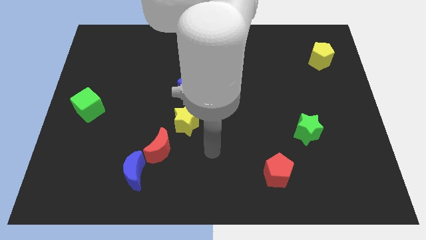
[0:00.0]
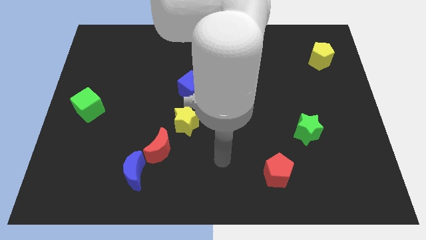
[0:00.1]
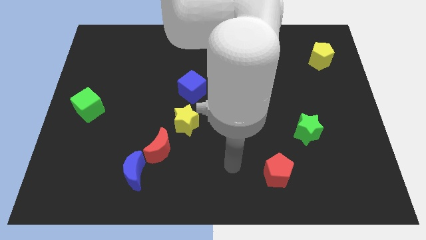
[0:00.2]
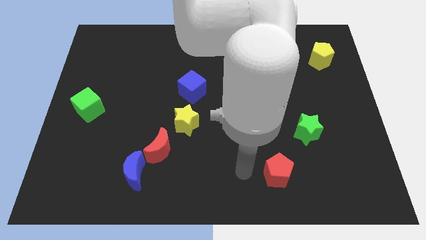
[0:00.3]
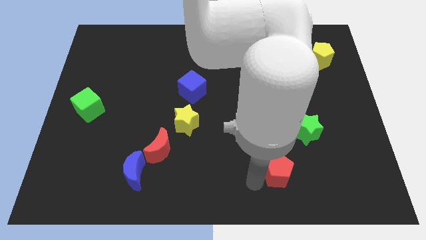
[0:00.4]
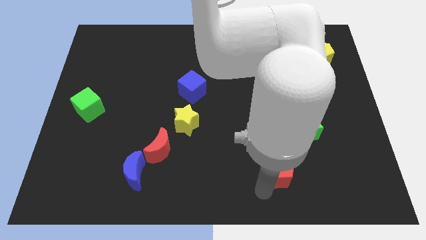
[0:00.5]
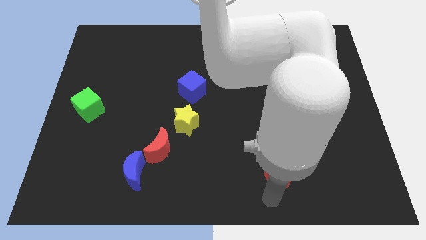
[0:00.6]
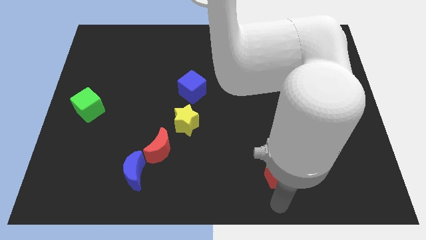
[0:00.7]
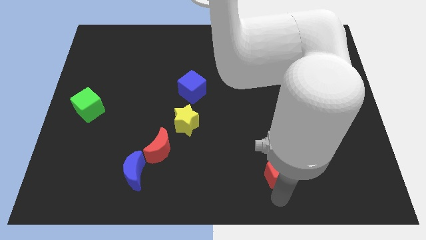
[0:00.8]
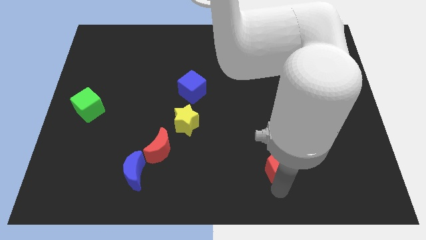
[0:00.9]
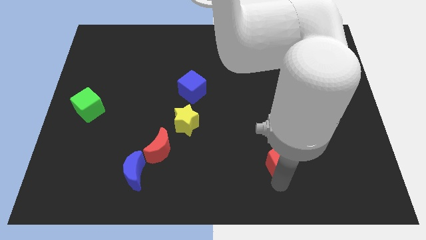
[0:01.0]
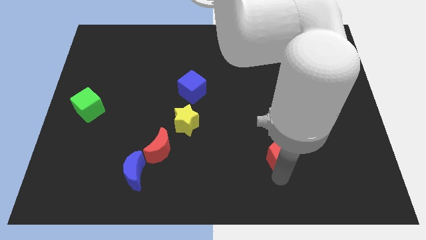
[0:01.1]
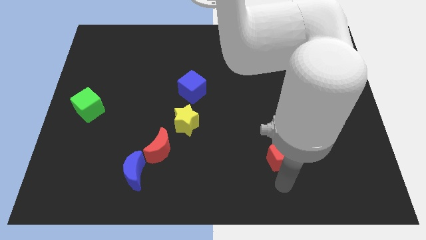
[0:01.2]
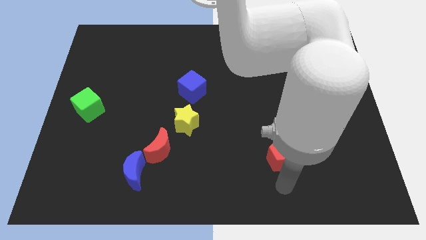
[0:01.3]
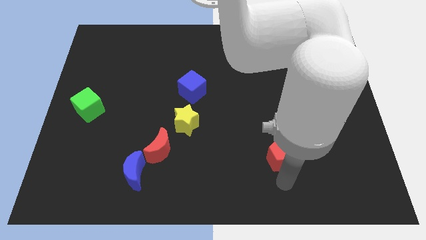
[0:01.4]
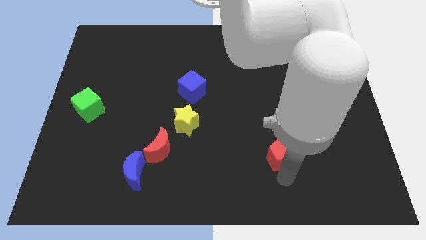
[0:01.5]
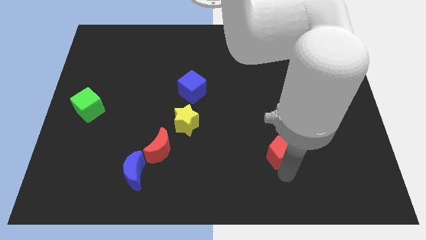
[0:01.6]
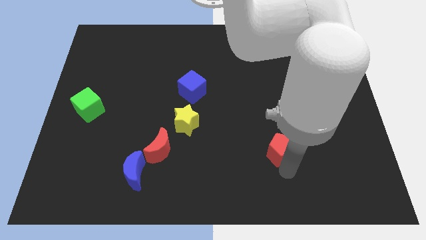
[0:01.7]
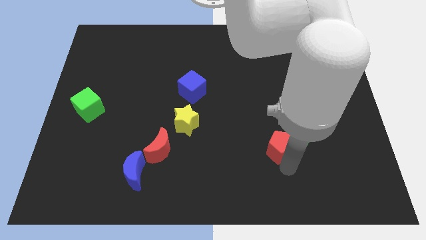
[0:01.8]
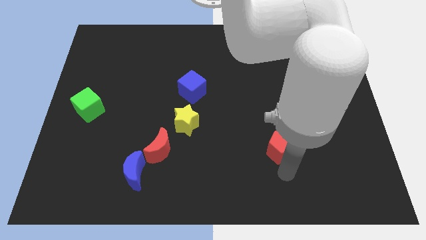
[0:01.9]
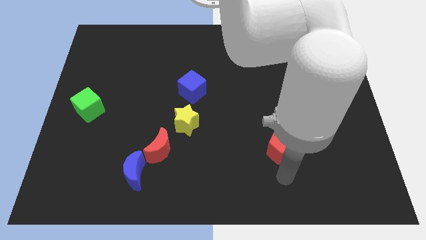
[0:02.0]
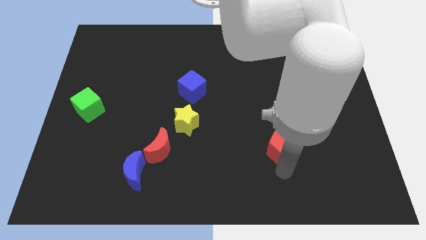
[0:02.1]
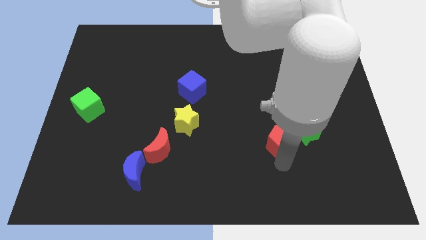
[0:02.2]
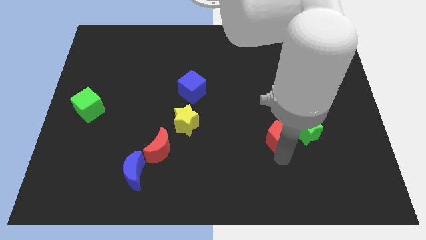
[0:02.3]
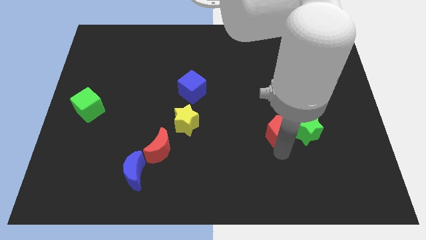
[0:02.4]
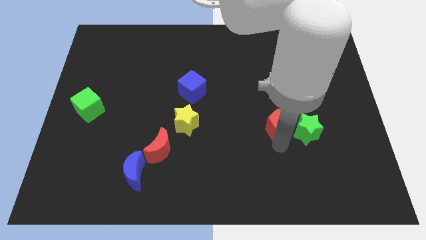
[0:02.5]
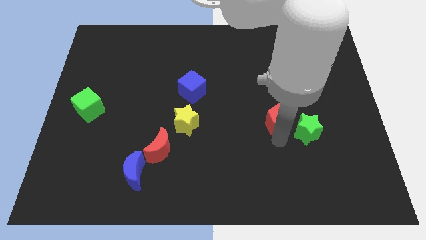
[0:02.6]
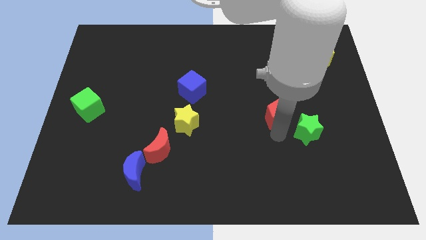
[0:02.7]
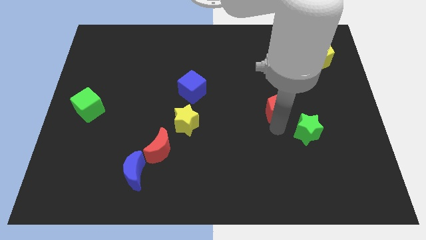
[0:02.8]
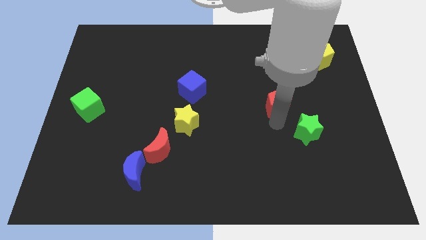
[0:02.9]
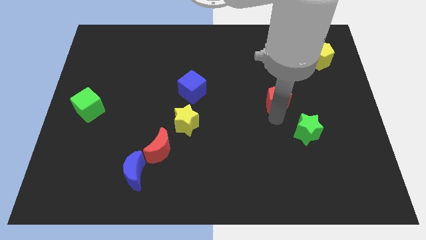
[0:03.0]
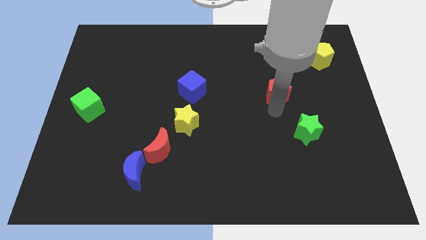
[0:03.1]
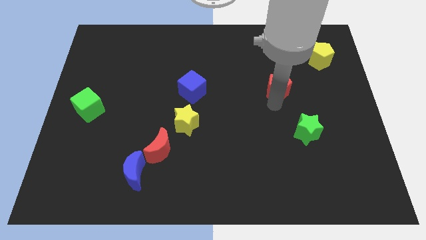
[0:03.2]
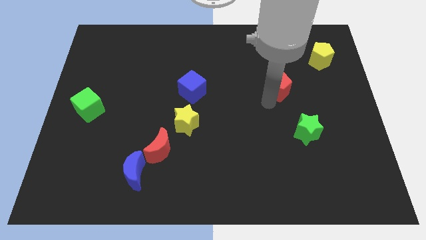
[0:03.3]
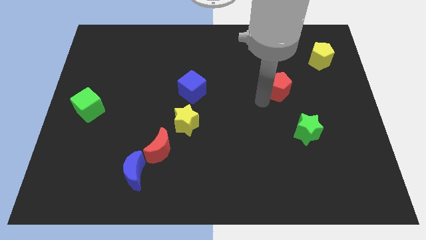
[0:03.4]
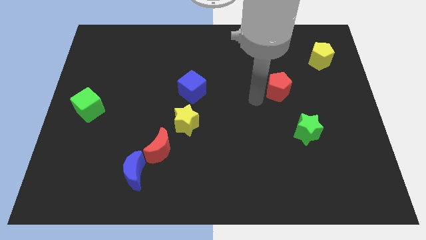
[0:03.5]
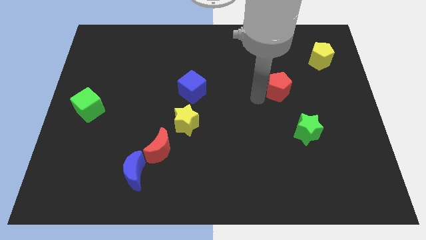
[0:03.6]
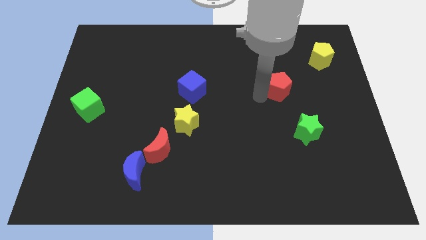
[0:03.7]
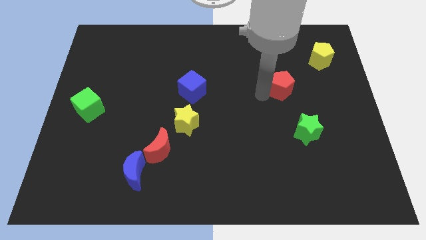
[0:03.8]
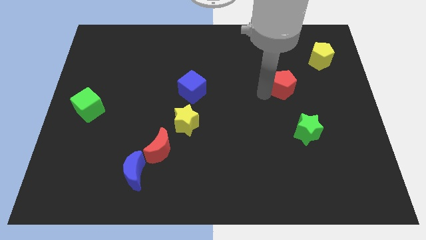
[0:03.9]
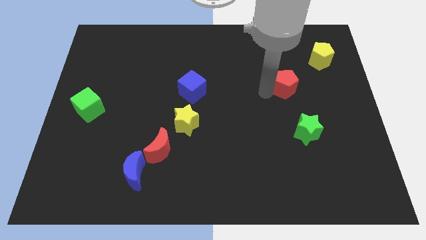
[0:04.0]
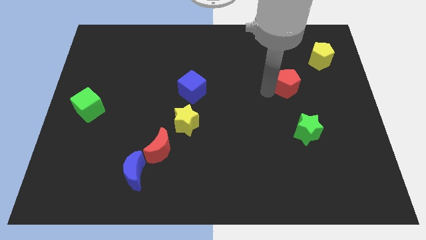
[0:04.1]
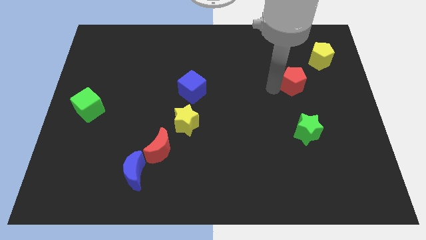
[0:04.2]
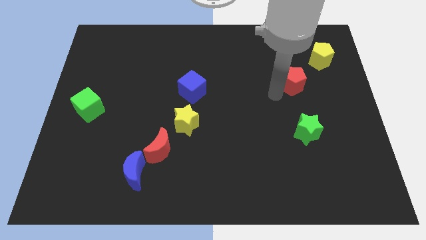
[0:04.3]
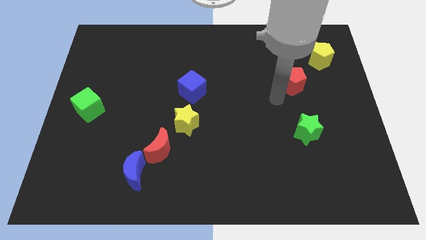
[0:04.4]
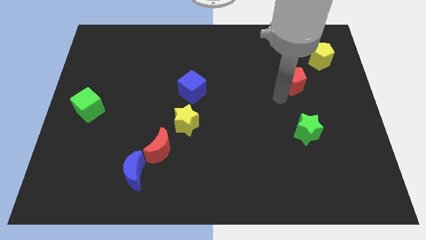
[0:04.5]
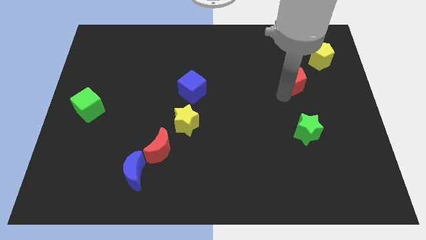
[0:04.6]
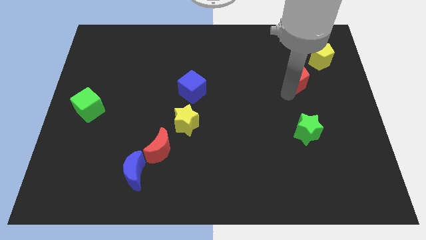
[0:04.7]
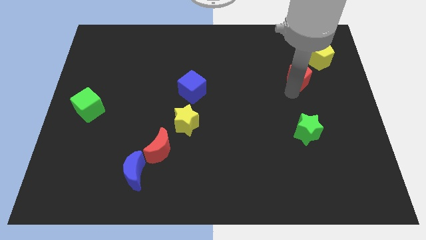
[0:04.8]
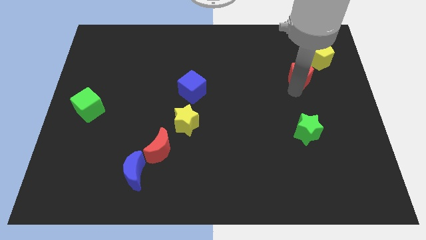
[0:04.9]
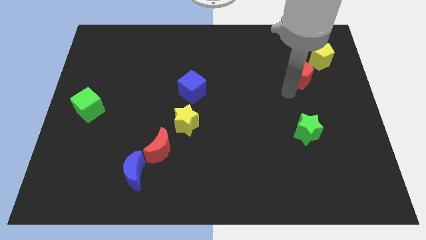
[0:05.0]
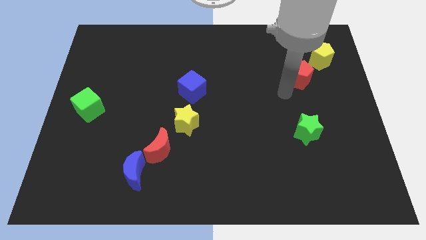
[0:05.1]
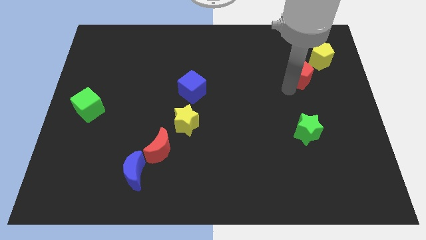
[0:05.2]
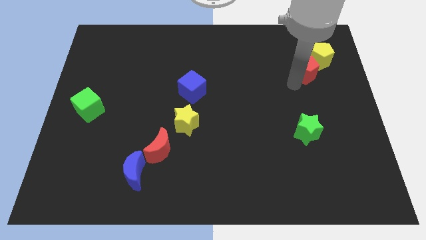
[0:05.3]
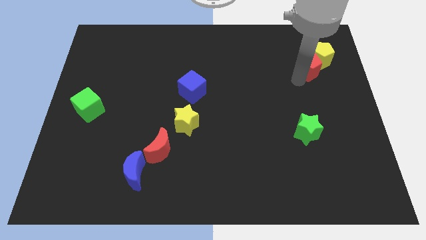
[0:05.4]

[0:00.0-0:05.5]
slide the red pentagon towards the yellow pentagon

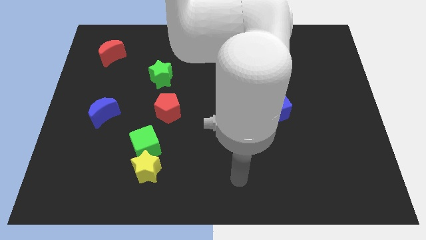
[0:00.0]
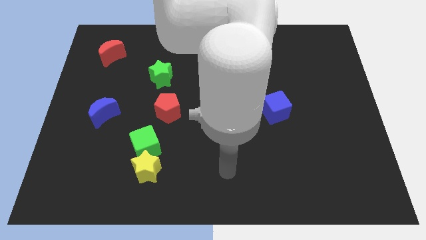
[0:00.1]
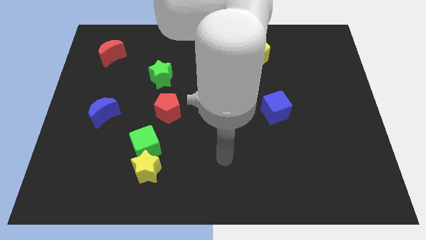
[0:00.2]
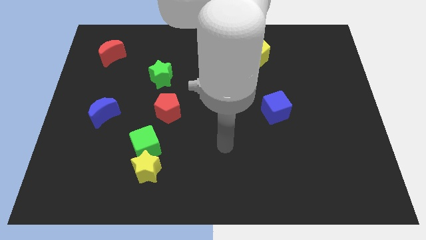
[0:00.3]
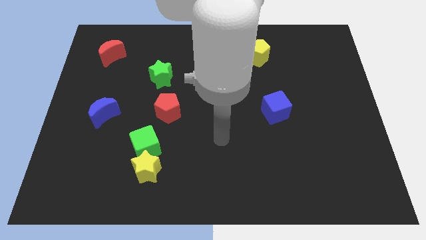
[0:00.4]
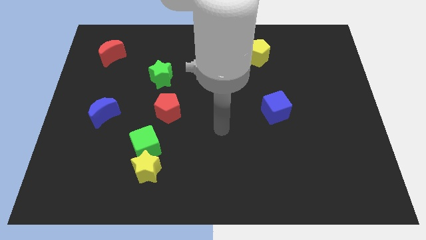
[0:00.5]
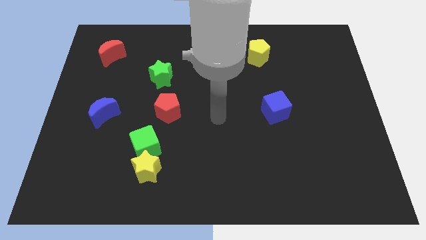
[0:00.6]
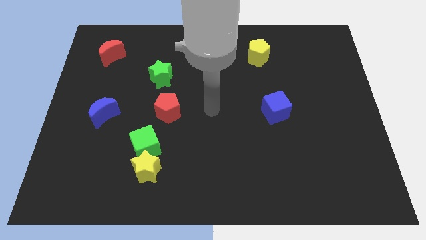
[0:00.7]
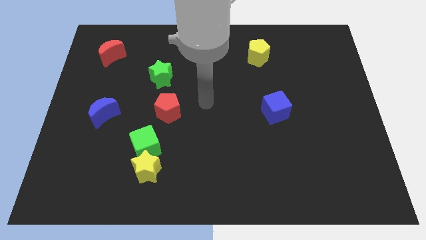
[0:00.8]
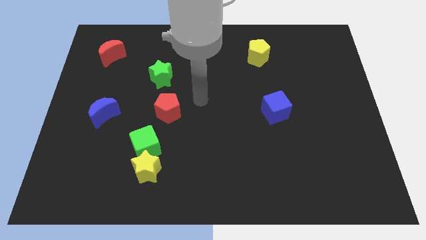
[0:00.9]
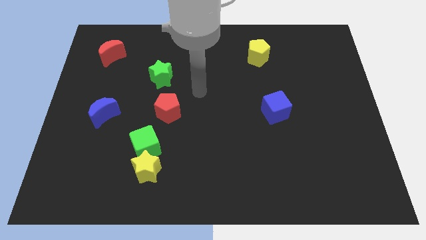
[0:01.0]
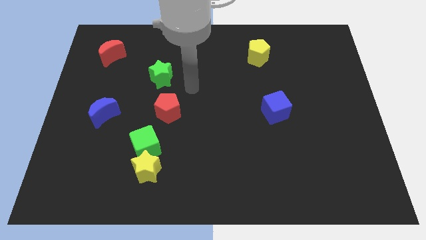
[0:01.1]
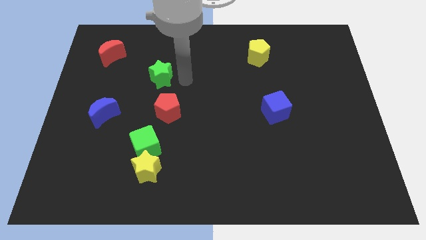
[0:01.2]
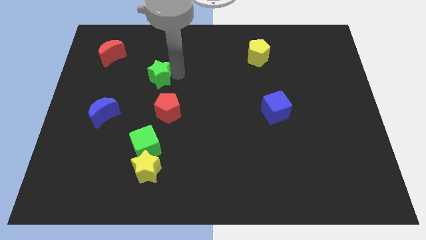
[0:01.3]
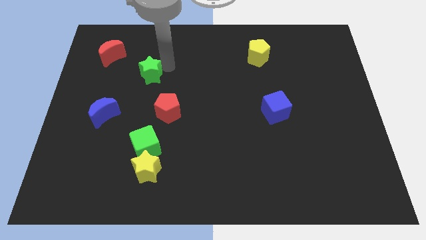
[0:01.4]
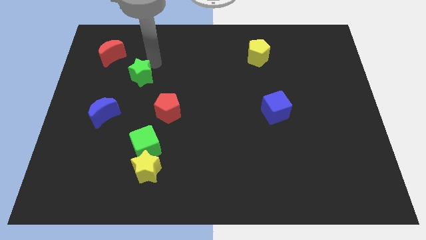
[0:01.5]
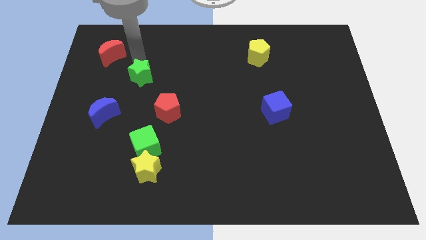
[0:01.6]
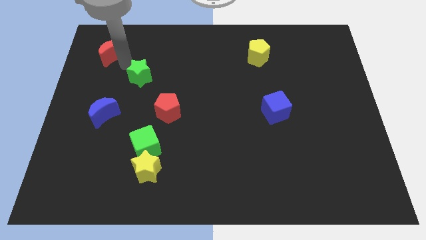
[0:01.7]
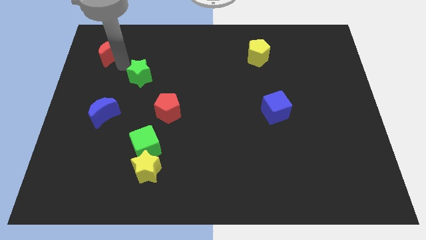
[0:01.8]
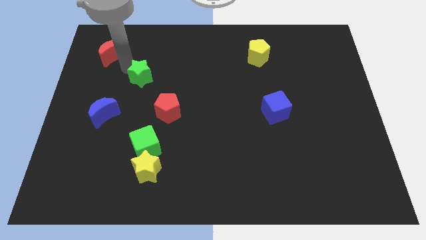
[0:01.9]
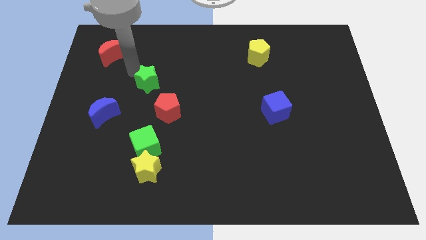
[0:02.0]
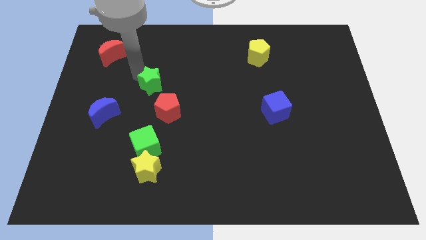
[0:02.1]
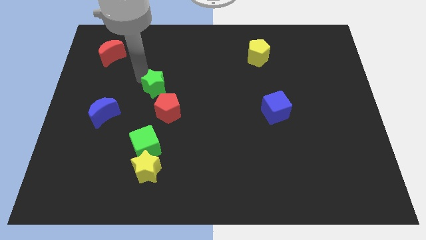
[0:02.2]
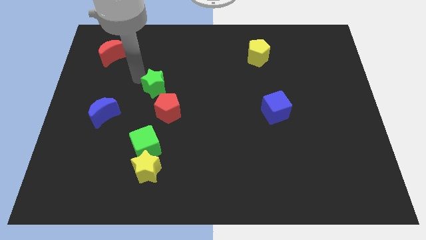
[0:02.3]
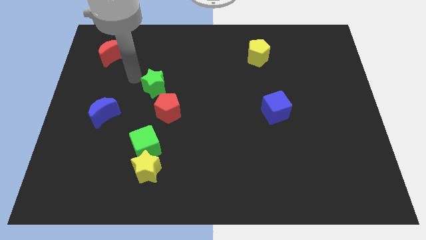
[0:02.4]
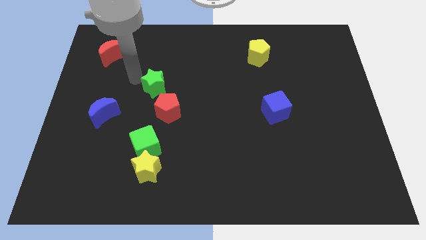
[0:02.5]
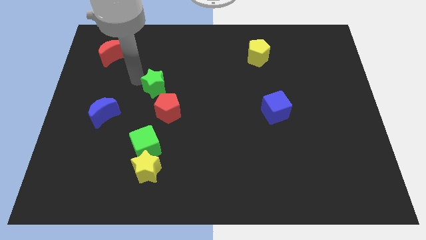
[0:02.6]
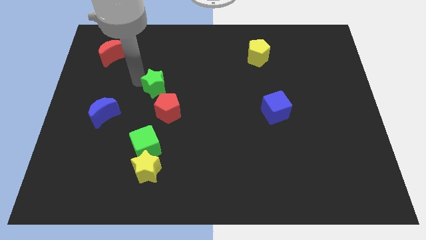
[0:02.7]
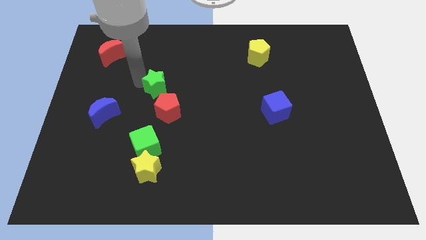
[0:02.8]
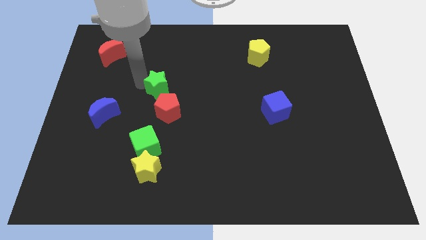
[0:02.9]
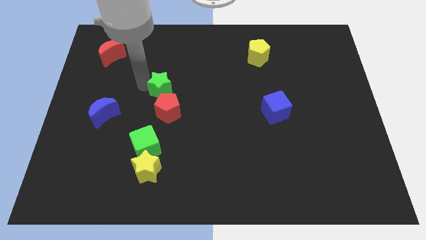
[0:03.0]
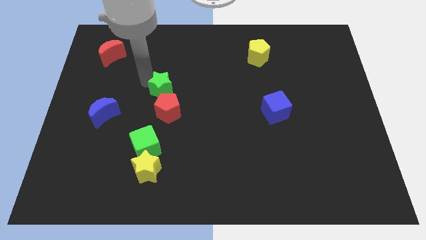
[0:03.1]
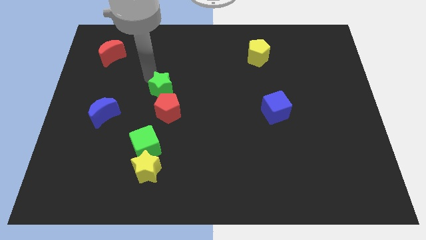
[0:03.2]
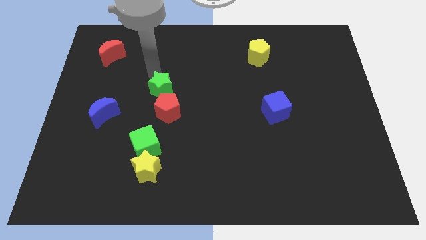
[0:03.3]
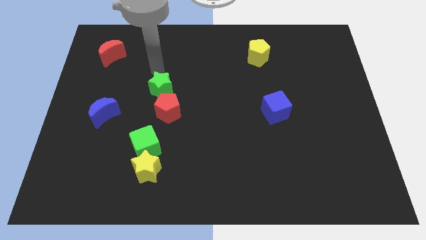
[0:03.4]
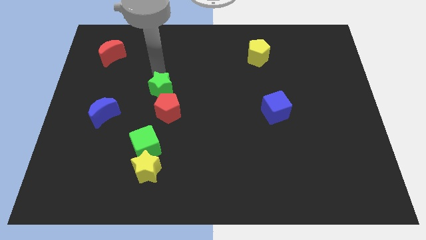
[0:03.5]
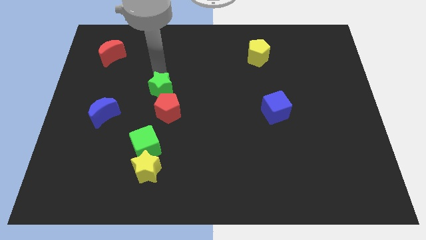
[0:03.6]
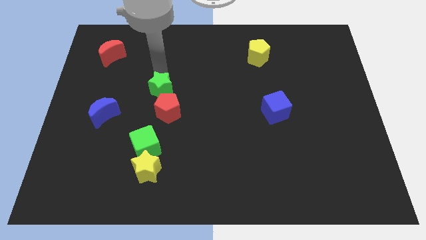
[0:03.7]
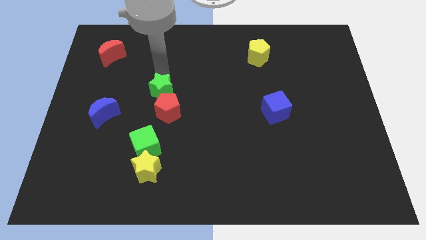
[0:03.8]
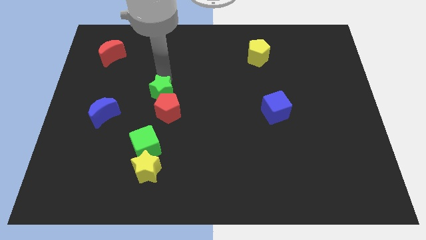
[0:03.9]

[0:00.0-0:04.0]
slide the green star to the red pentagon
